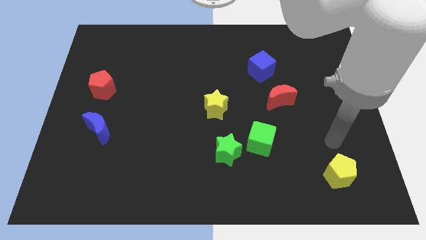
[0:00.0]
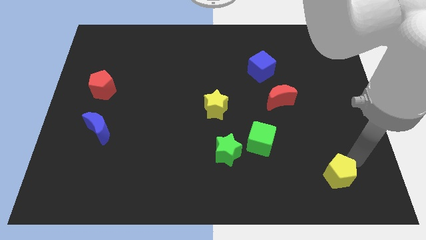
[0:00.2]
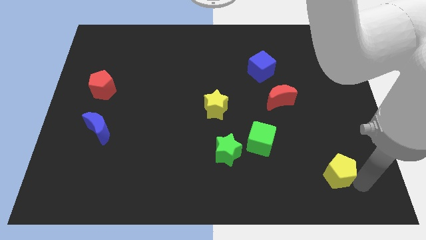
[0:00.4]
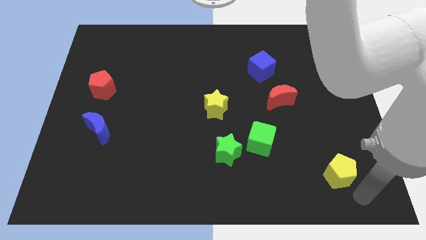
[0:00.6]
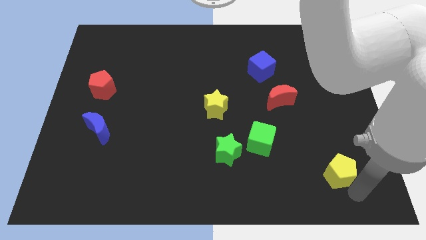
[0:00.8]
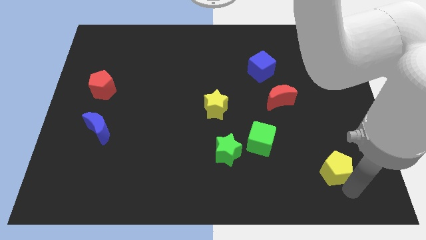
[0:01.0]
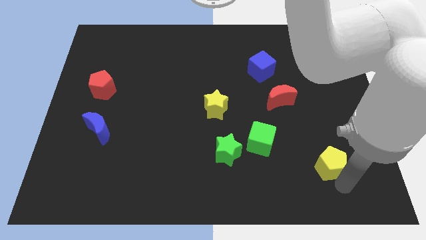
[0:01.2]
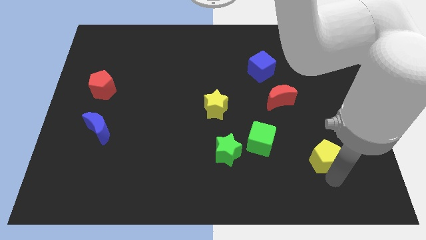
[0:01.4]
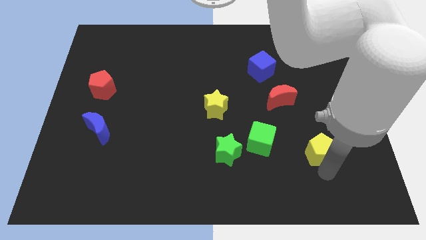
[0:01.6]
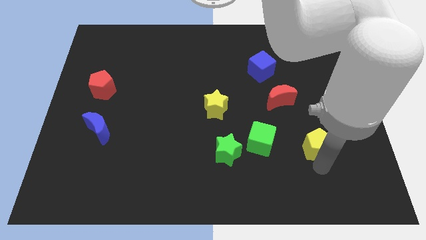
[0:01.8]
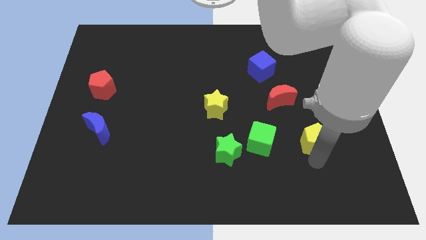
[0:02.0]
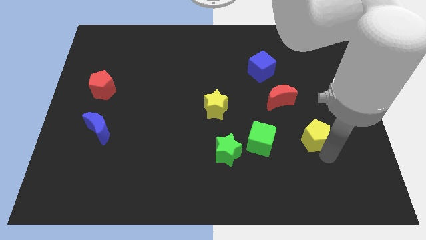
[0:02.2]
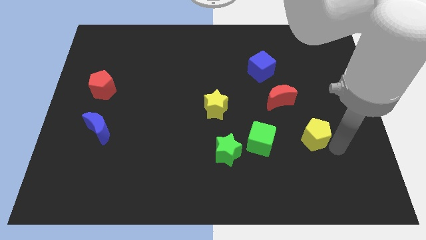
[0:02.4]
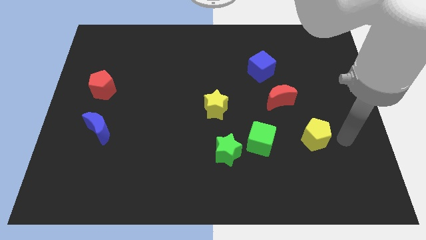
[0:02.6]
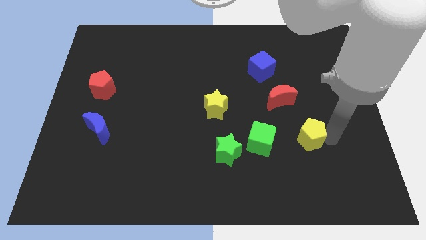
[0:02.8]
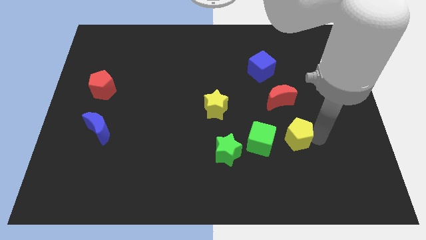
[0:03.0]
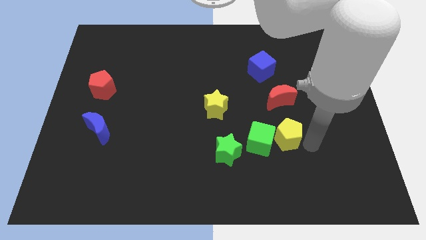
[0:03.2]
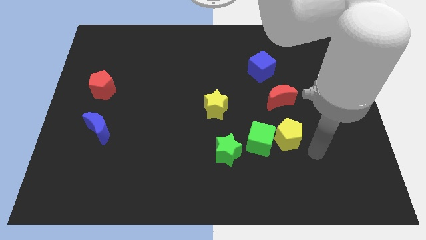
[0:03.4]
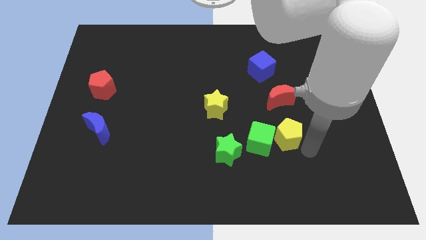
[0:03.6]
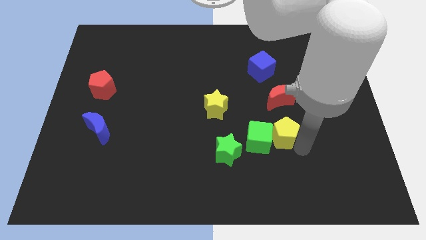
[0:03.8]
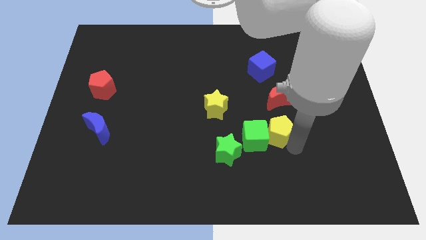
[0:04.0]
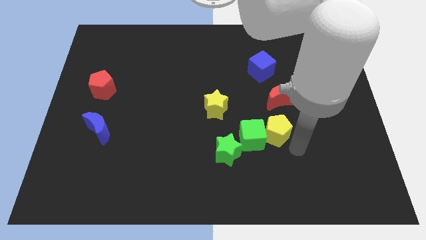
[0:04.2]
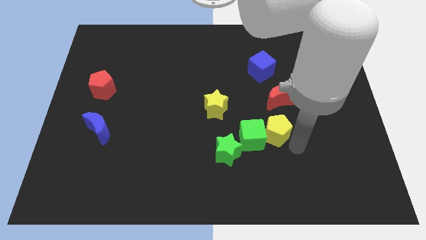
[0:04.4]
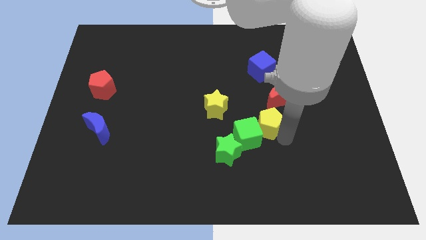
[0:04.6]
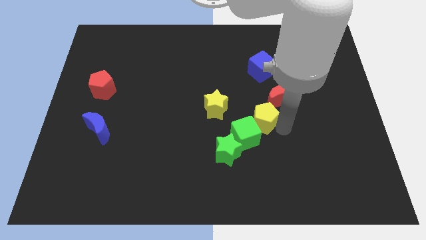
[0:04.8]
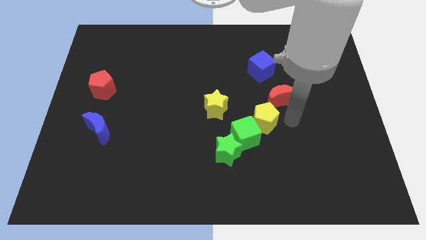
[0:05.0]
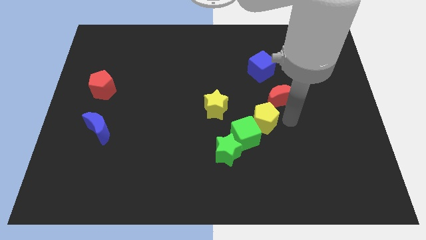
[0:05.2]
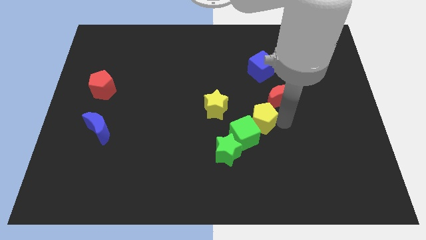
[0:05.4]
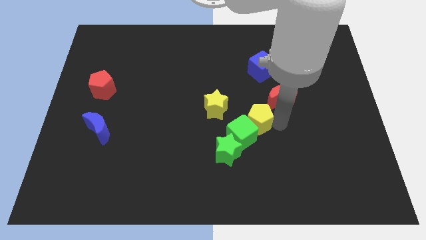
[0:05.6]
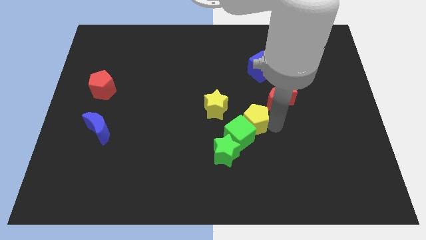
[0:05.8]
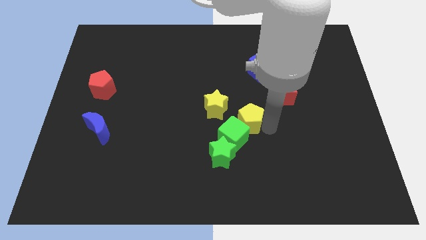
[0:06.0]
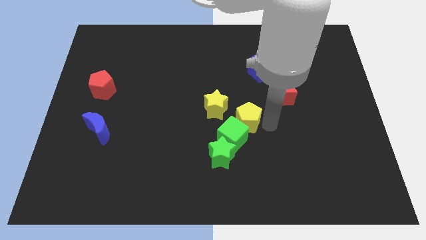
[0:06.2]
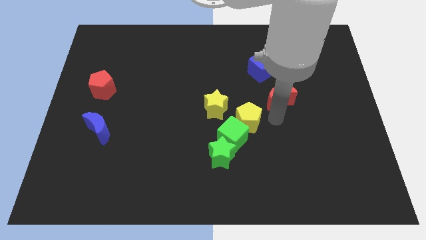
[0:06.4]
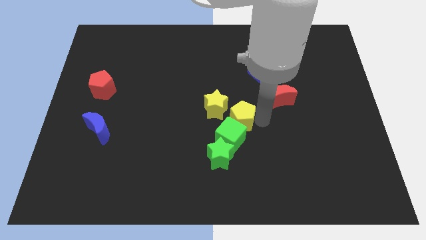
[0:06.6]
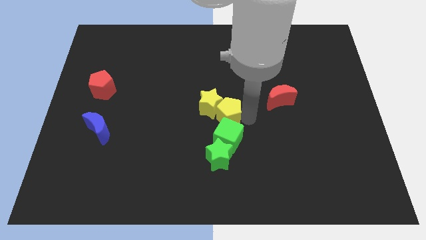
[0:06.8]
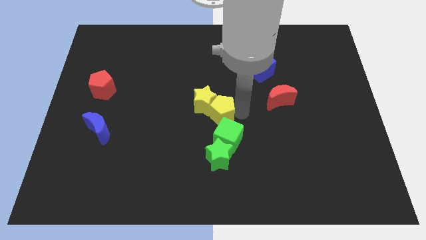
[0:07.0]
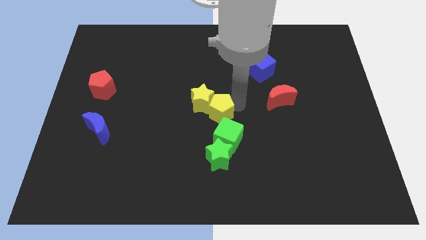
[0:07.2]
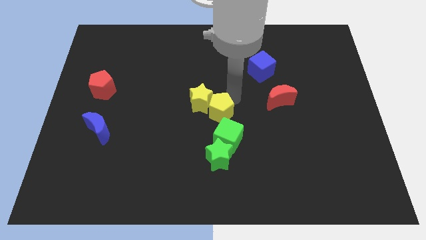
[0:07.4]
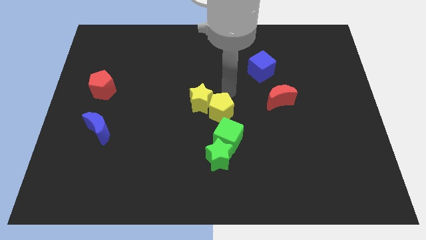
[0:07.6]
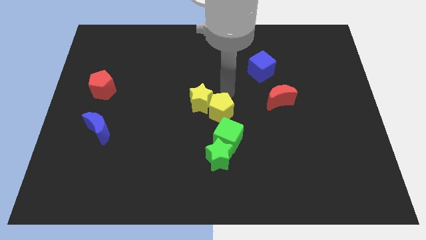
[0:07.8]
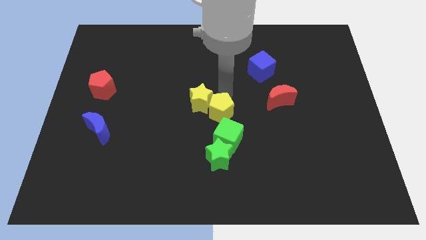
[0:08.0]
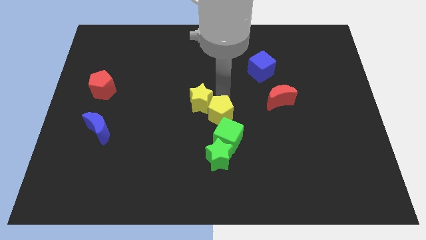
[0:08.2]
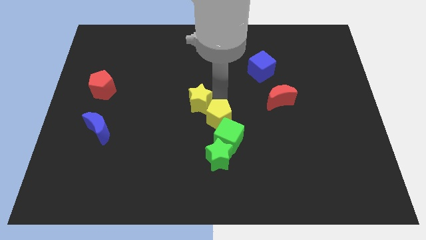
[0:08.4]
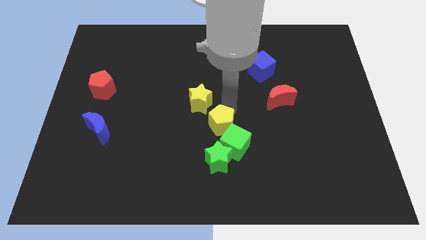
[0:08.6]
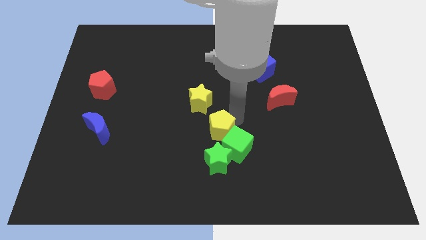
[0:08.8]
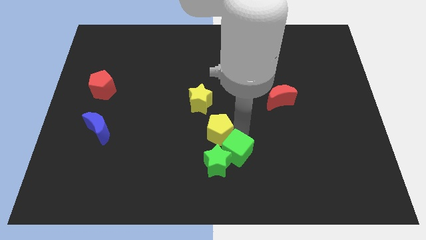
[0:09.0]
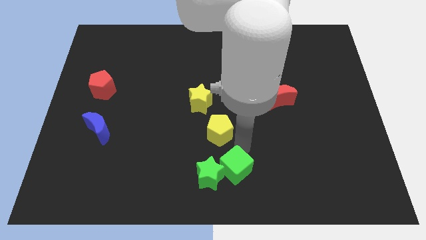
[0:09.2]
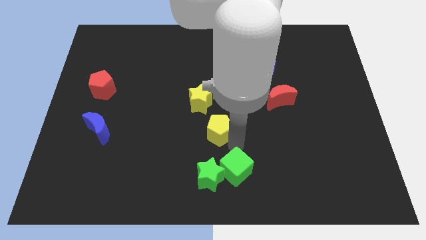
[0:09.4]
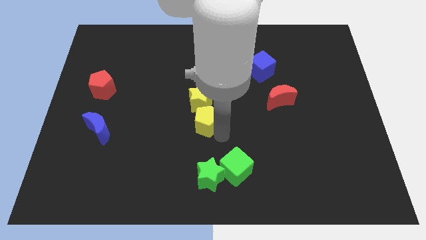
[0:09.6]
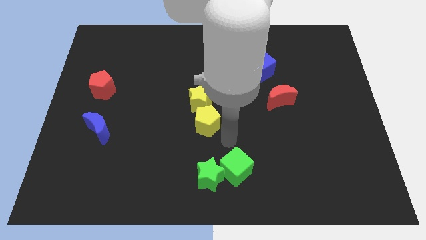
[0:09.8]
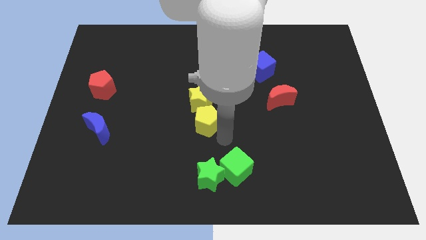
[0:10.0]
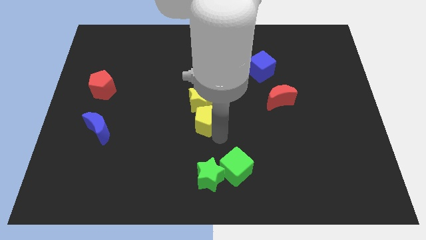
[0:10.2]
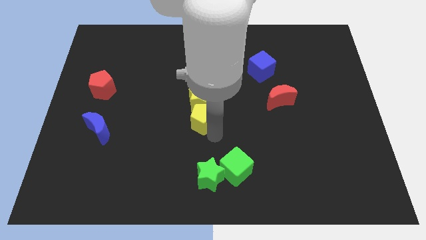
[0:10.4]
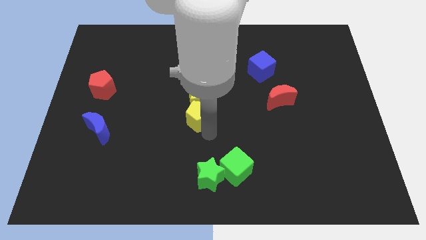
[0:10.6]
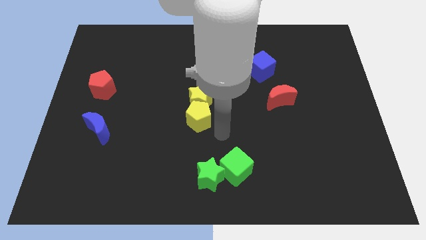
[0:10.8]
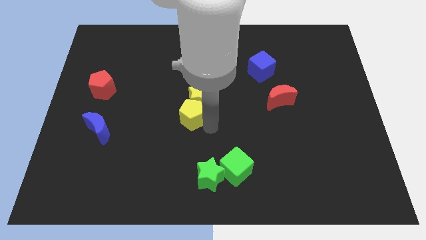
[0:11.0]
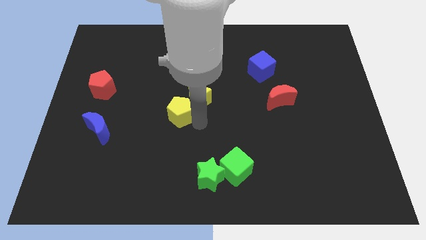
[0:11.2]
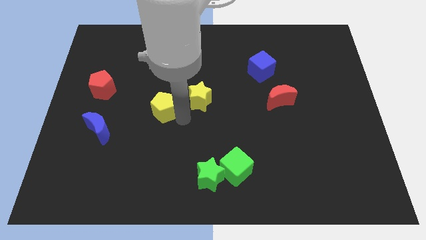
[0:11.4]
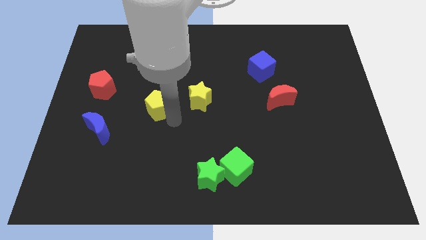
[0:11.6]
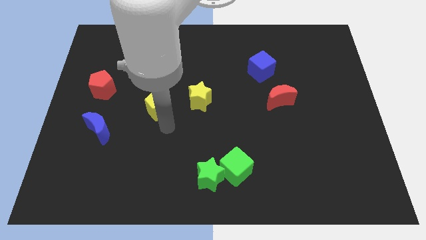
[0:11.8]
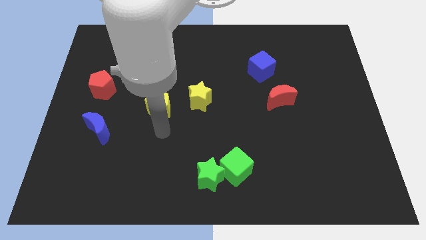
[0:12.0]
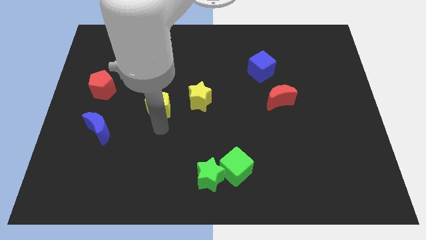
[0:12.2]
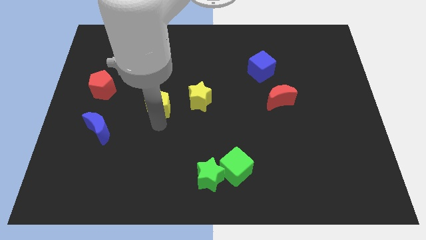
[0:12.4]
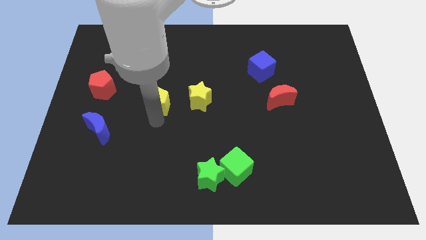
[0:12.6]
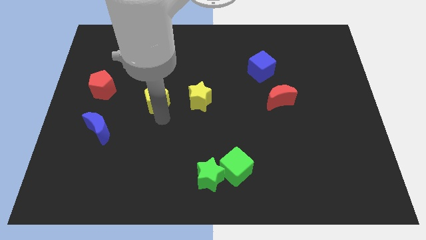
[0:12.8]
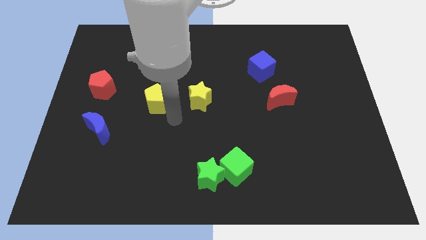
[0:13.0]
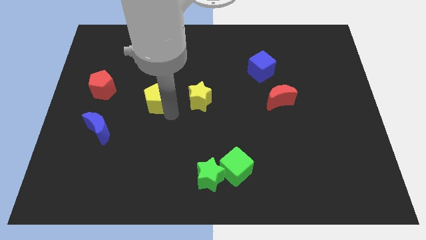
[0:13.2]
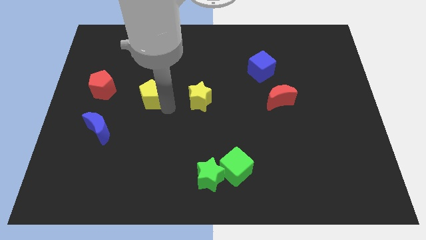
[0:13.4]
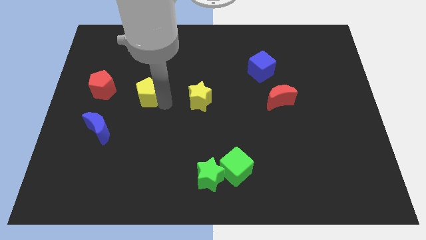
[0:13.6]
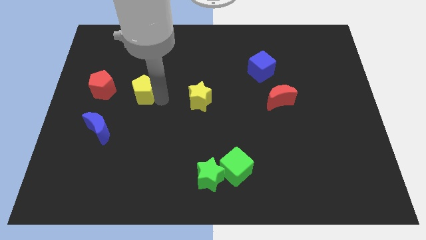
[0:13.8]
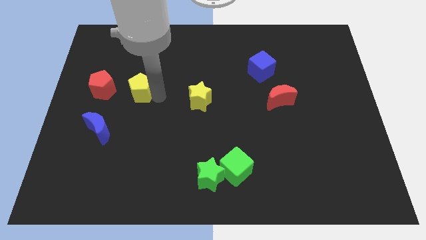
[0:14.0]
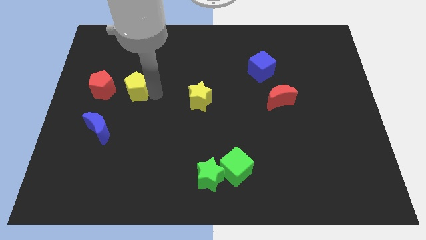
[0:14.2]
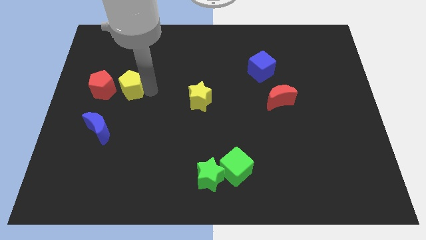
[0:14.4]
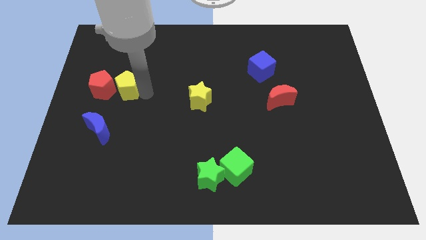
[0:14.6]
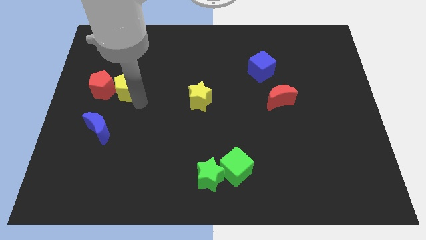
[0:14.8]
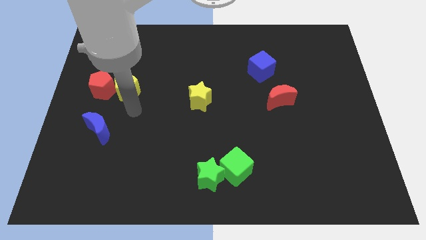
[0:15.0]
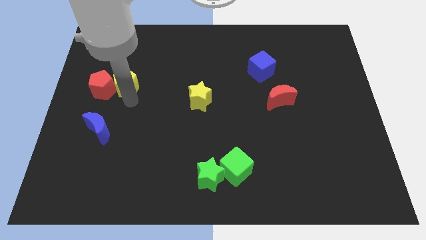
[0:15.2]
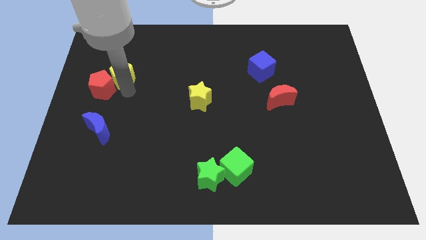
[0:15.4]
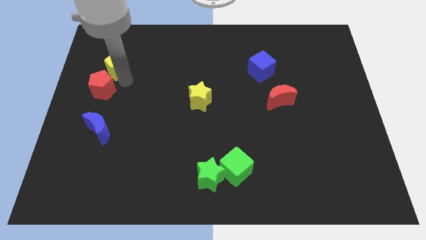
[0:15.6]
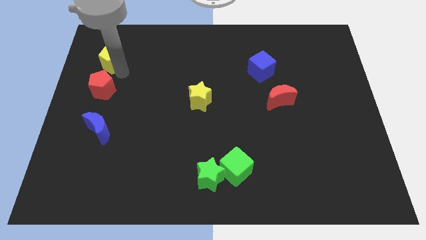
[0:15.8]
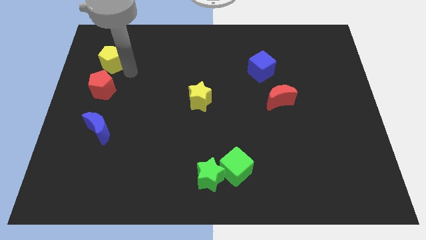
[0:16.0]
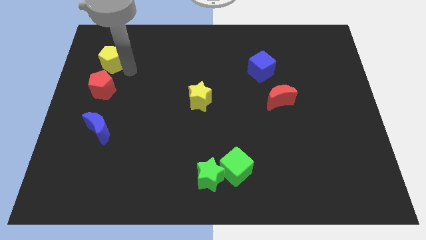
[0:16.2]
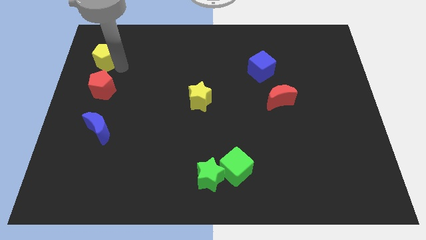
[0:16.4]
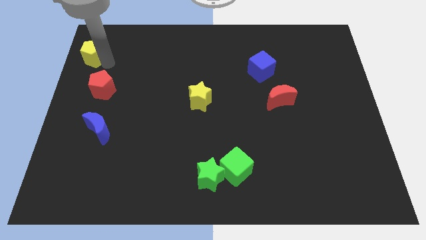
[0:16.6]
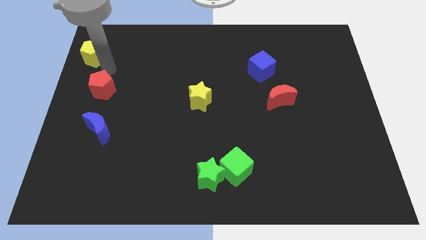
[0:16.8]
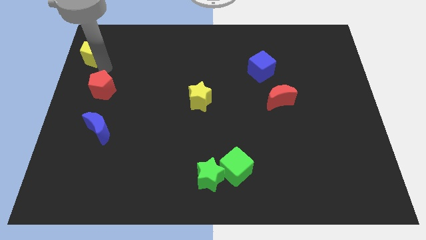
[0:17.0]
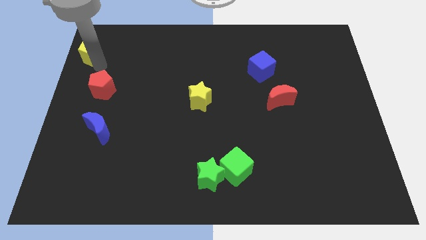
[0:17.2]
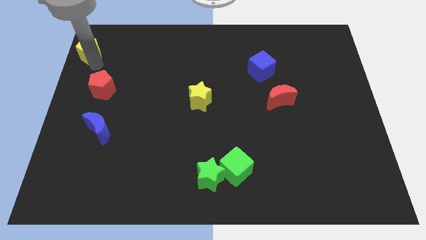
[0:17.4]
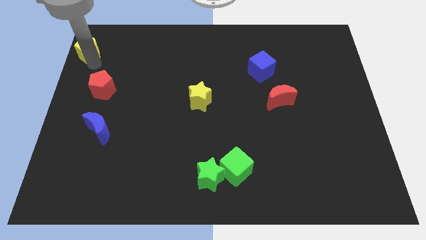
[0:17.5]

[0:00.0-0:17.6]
push the yellow pentagon to the top left corner
